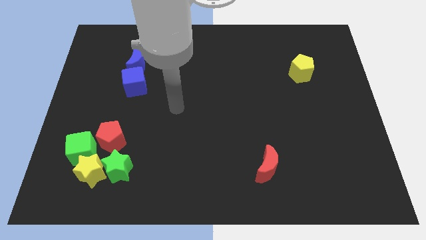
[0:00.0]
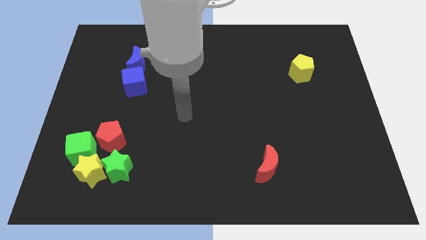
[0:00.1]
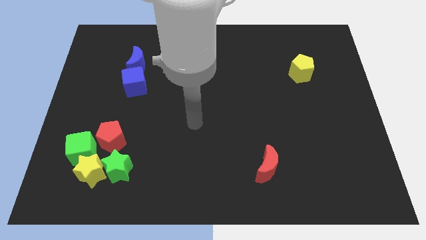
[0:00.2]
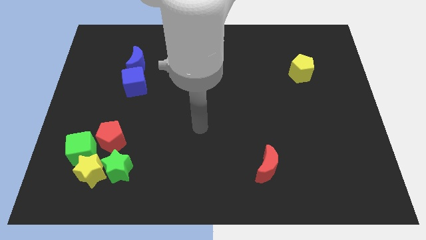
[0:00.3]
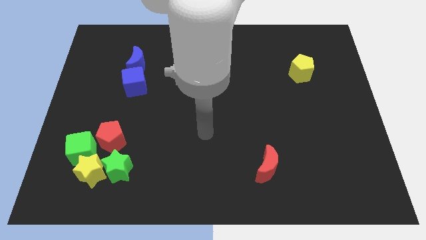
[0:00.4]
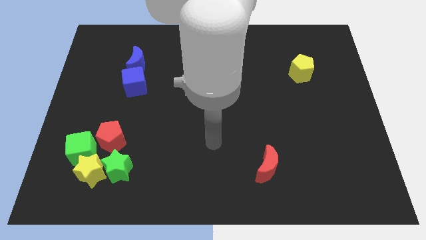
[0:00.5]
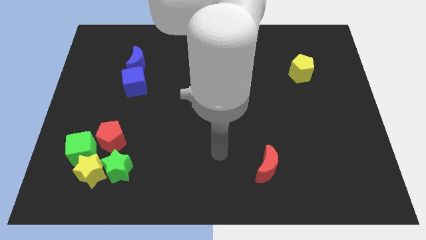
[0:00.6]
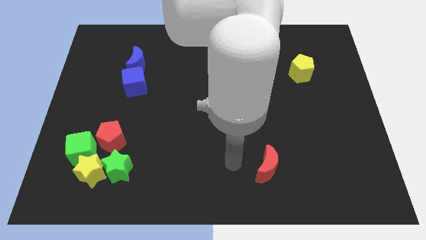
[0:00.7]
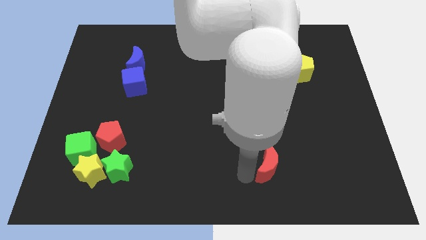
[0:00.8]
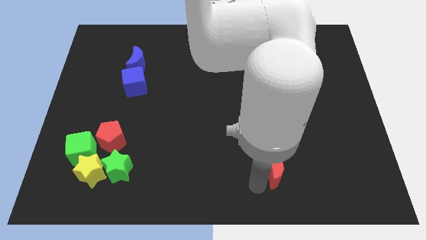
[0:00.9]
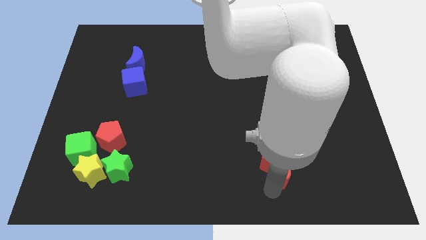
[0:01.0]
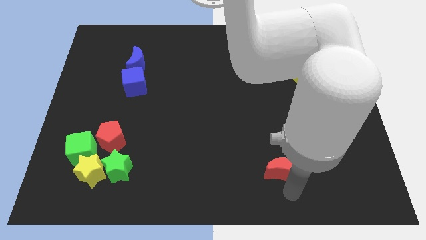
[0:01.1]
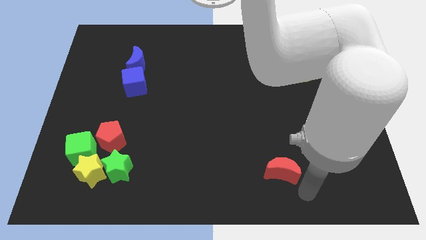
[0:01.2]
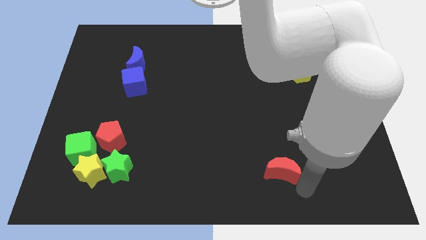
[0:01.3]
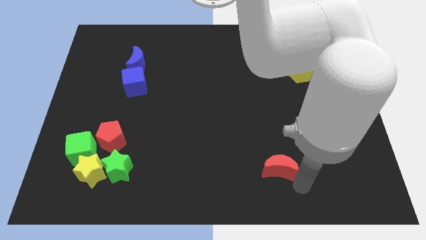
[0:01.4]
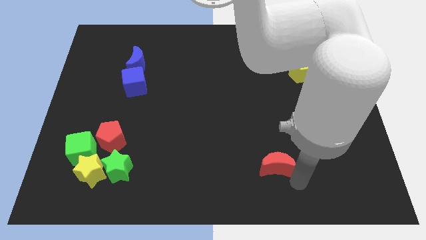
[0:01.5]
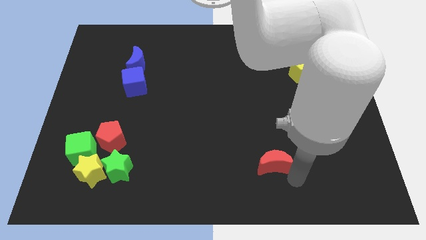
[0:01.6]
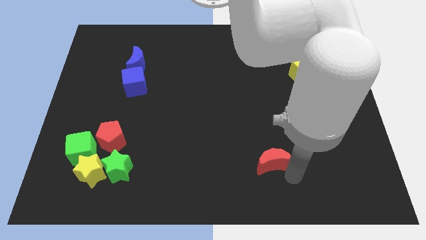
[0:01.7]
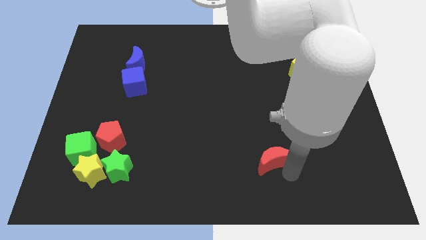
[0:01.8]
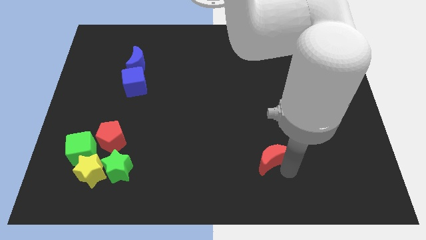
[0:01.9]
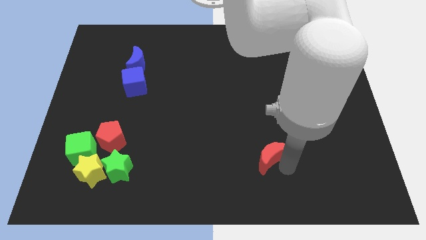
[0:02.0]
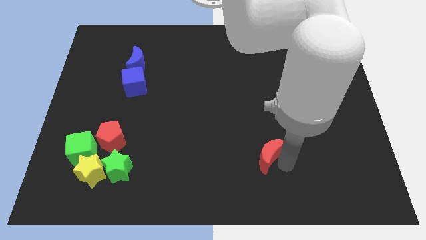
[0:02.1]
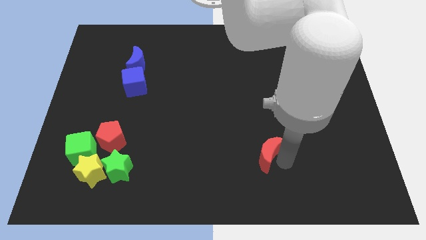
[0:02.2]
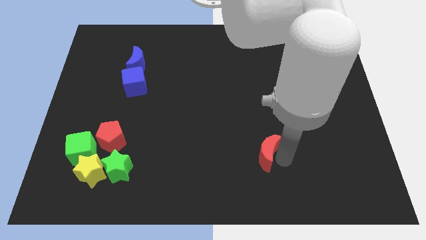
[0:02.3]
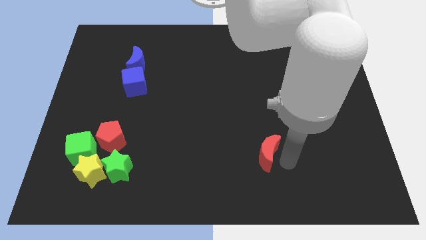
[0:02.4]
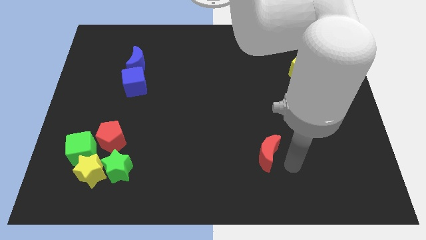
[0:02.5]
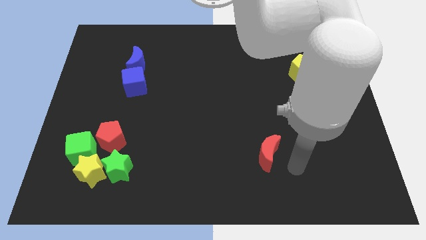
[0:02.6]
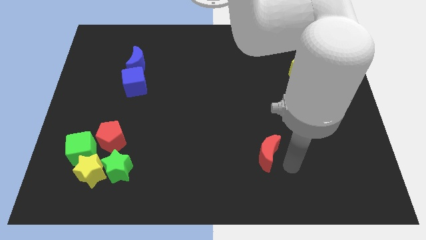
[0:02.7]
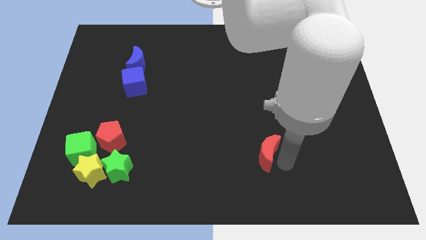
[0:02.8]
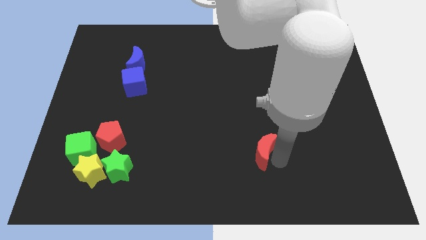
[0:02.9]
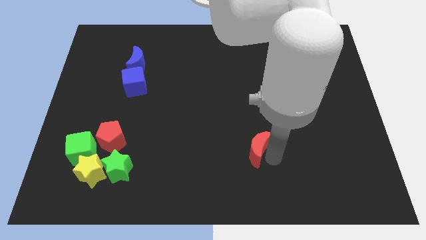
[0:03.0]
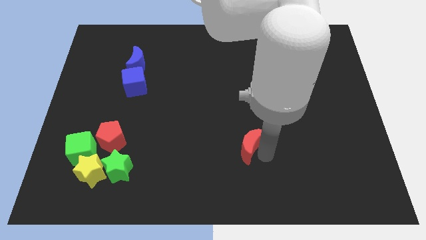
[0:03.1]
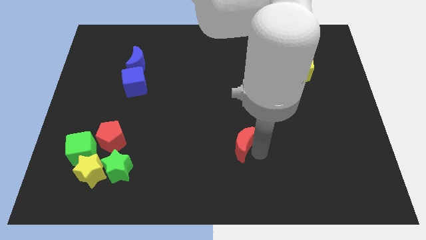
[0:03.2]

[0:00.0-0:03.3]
slightly push the red moon up and then to the left

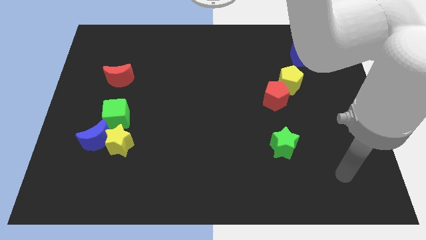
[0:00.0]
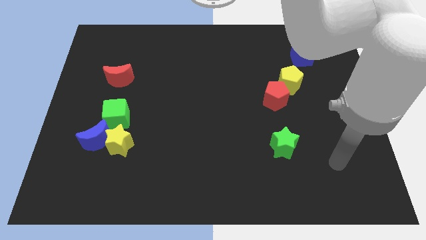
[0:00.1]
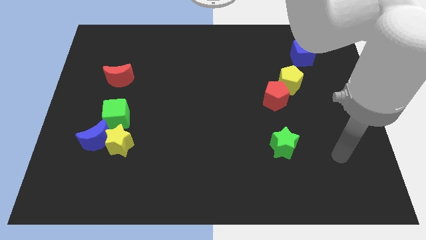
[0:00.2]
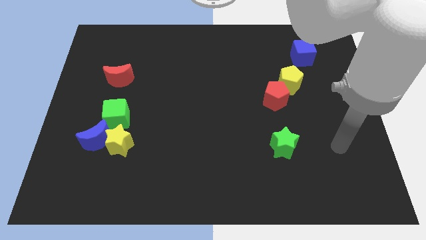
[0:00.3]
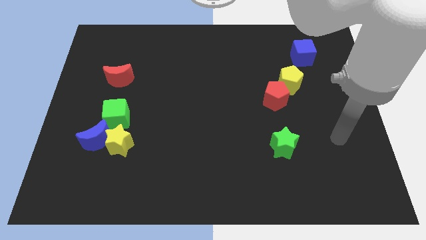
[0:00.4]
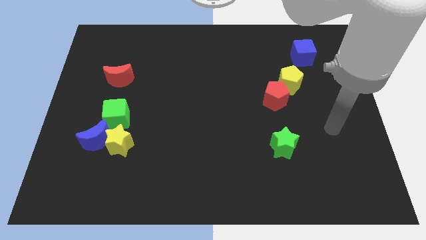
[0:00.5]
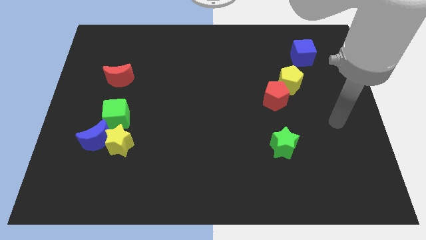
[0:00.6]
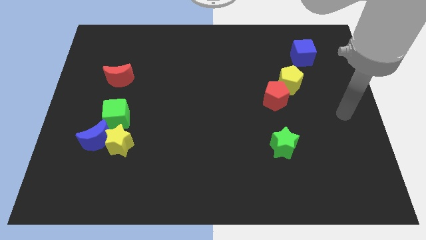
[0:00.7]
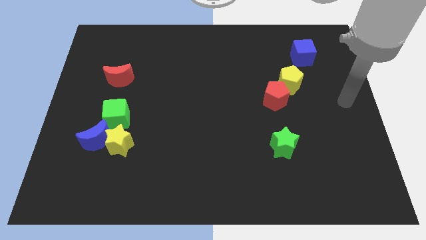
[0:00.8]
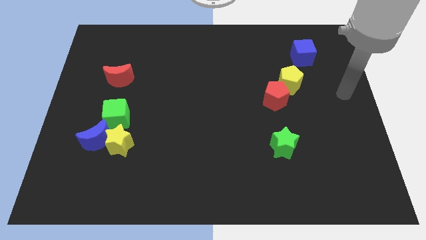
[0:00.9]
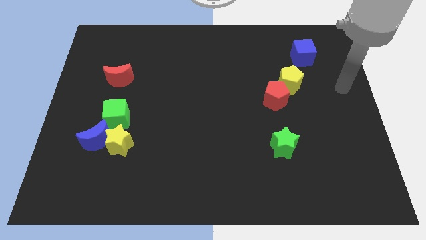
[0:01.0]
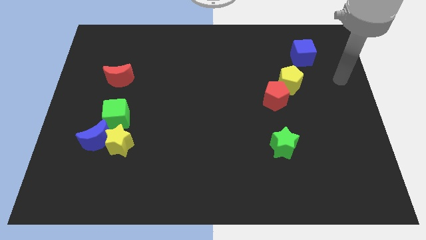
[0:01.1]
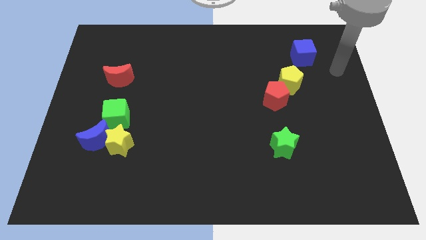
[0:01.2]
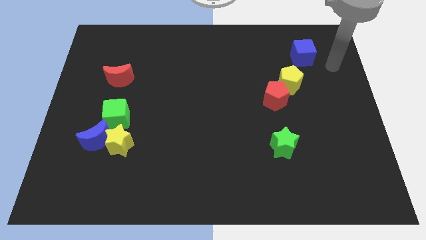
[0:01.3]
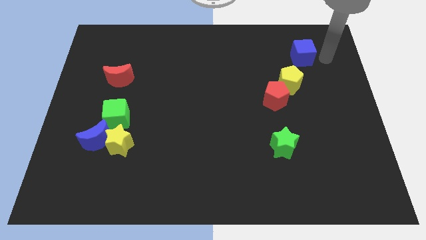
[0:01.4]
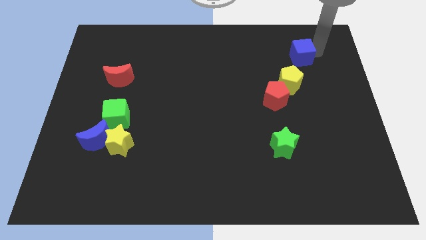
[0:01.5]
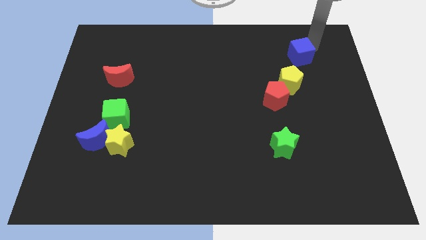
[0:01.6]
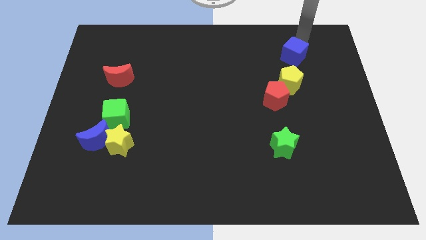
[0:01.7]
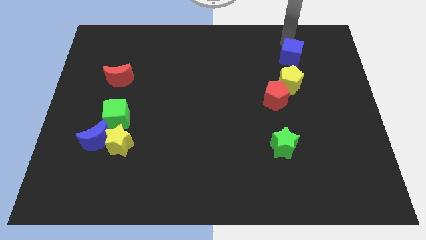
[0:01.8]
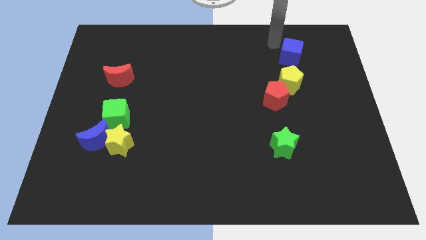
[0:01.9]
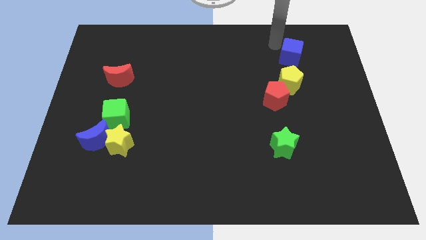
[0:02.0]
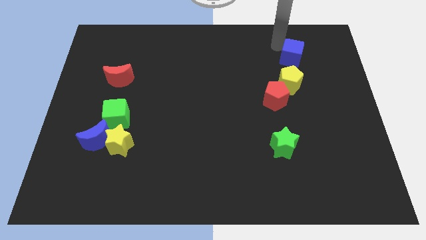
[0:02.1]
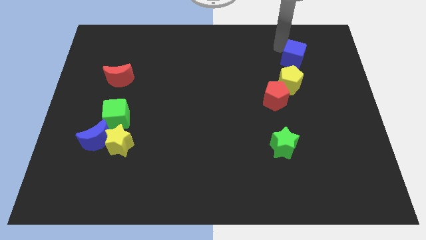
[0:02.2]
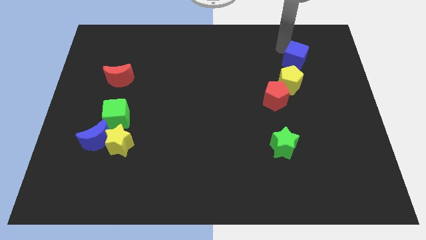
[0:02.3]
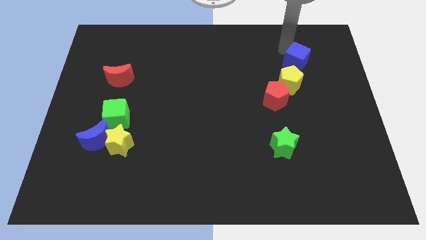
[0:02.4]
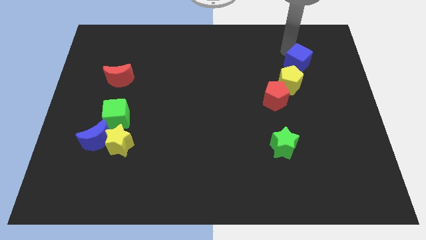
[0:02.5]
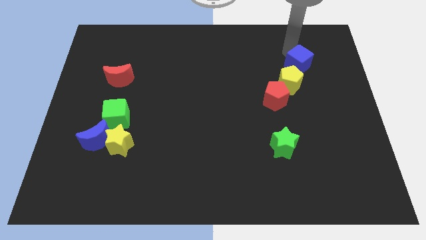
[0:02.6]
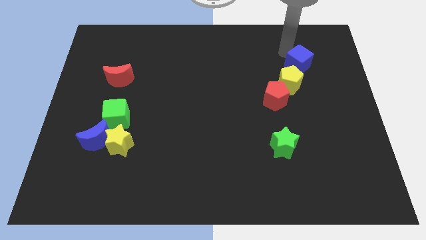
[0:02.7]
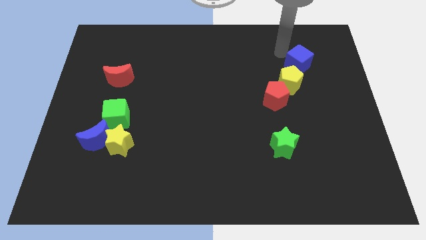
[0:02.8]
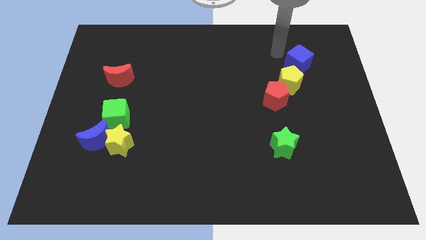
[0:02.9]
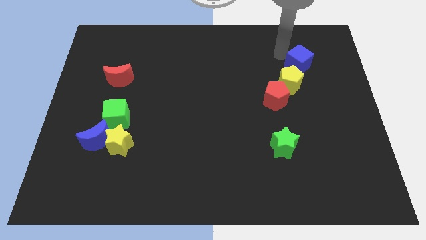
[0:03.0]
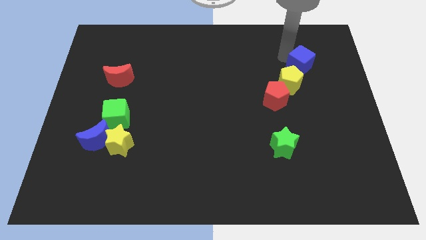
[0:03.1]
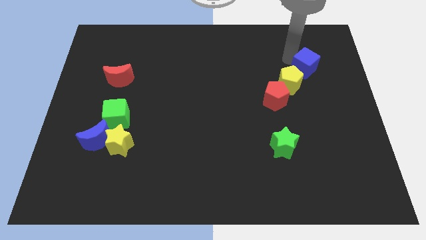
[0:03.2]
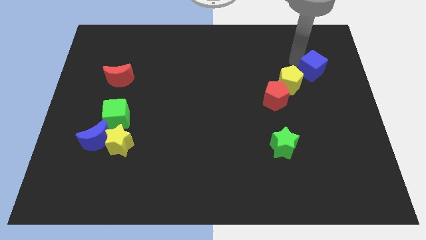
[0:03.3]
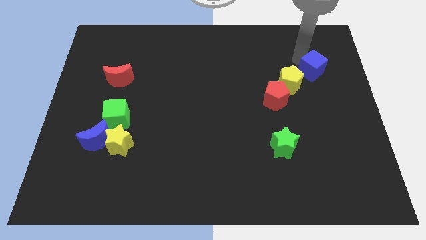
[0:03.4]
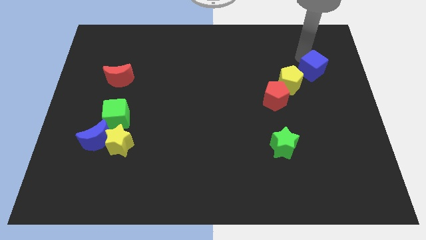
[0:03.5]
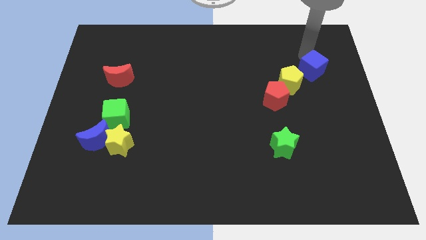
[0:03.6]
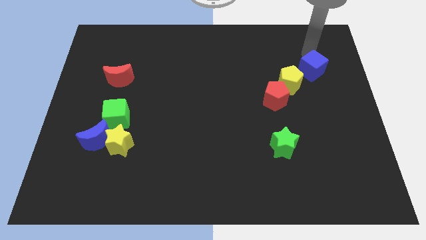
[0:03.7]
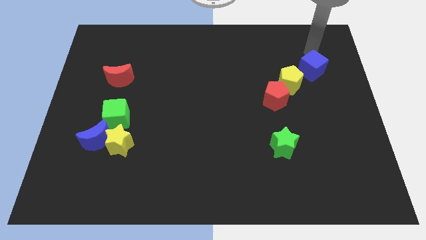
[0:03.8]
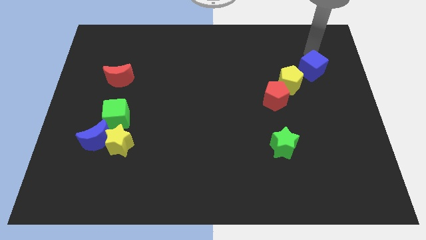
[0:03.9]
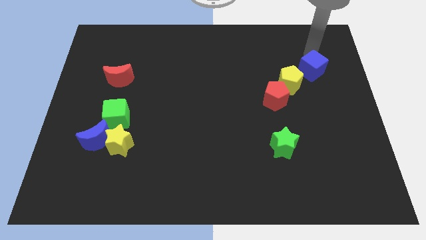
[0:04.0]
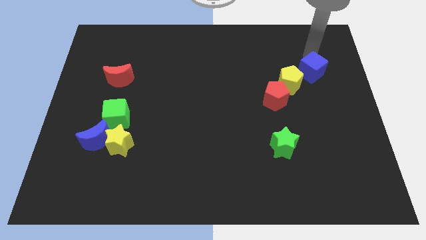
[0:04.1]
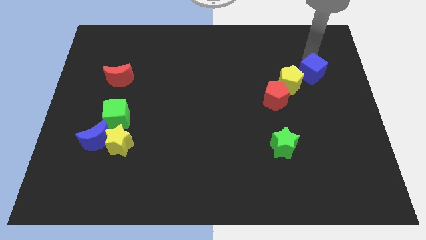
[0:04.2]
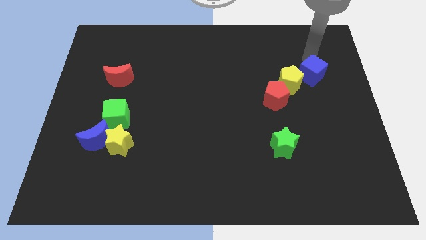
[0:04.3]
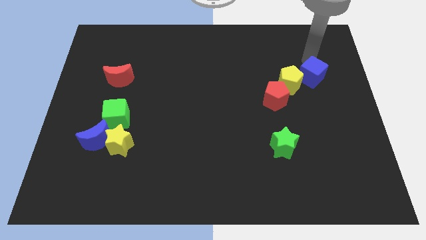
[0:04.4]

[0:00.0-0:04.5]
push the blue cube downwards somewhat

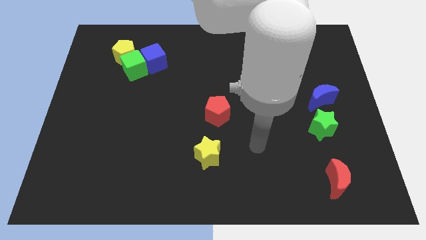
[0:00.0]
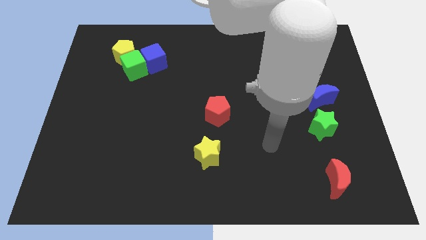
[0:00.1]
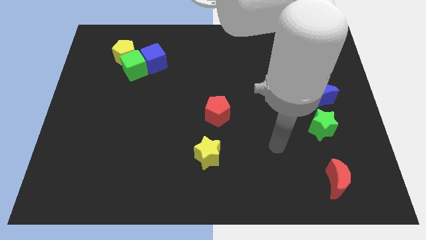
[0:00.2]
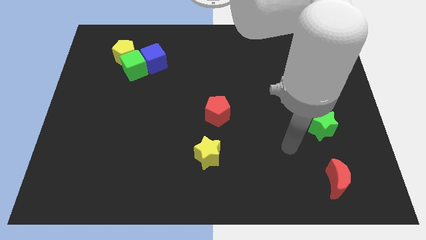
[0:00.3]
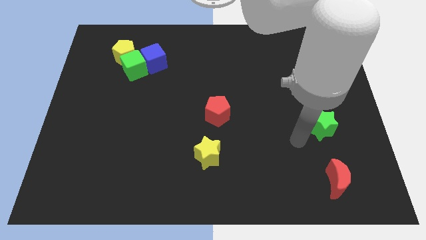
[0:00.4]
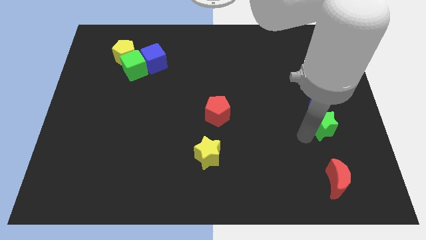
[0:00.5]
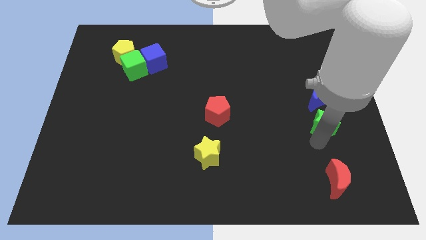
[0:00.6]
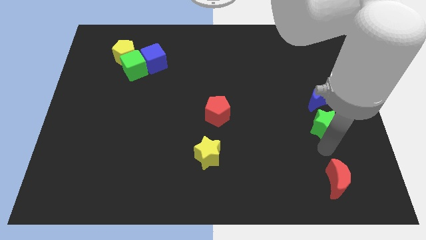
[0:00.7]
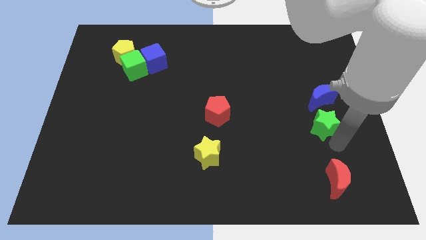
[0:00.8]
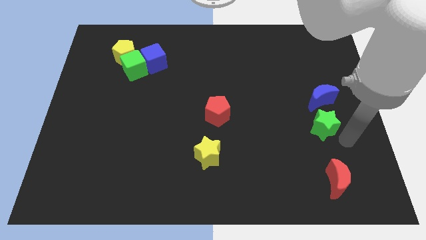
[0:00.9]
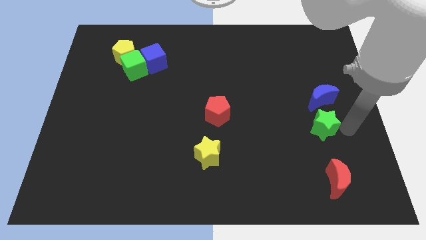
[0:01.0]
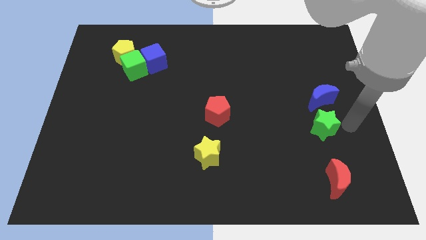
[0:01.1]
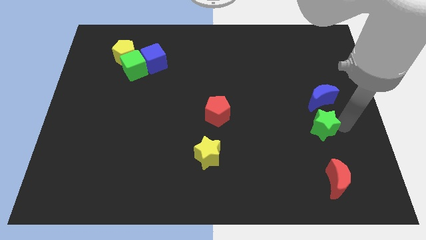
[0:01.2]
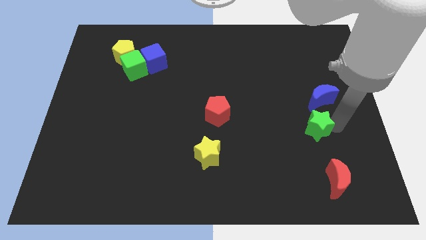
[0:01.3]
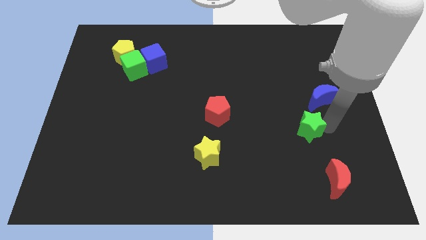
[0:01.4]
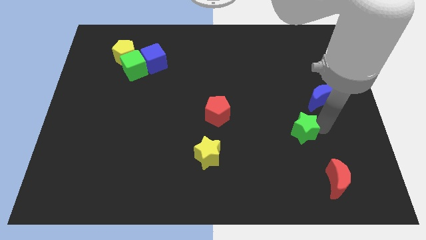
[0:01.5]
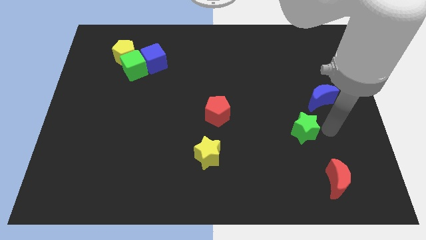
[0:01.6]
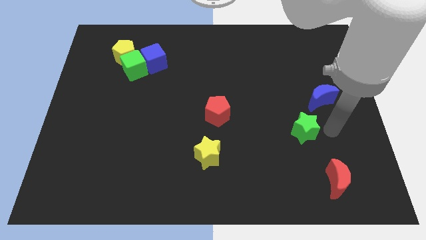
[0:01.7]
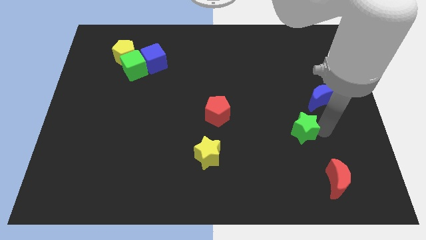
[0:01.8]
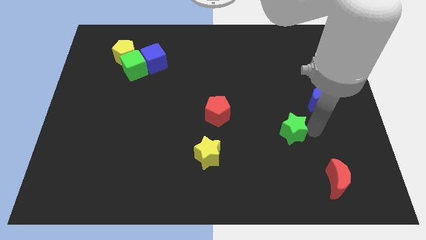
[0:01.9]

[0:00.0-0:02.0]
slightly push the green star to the left
